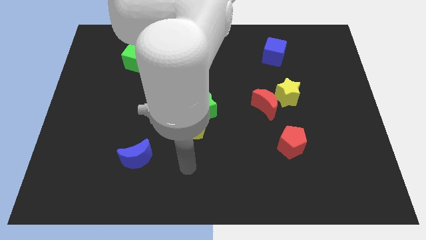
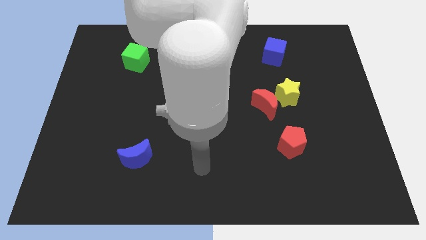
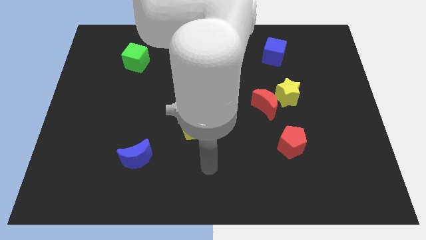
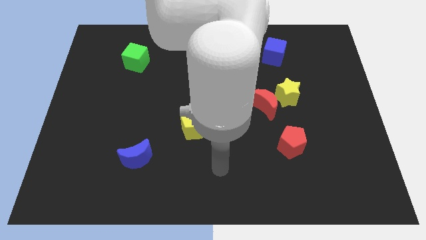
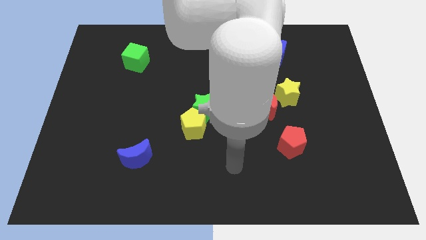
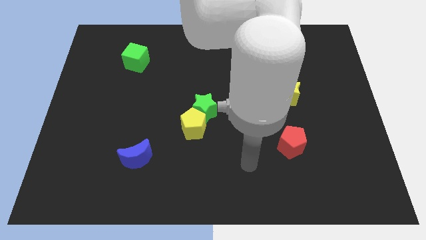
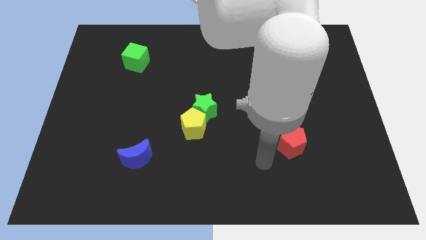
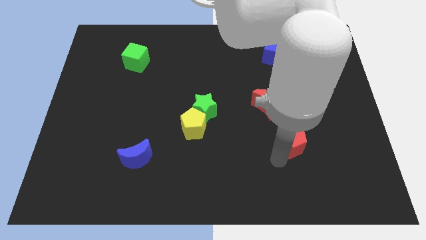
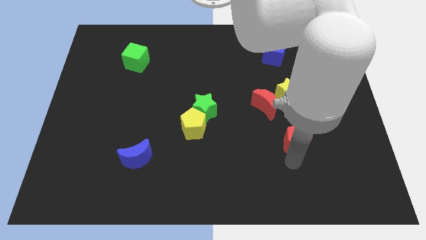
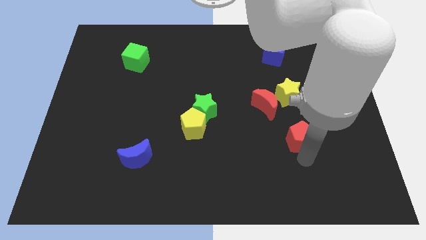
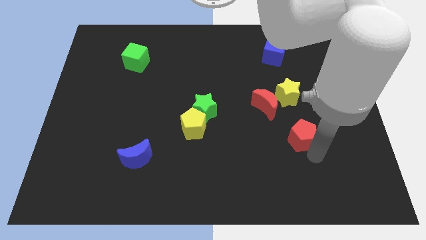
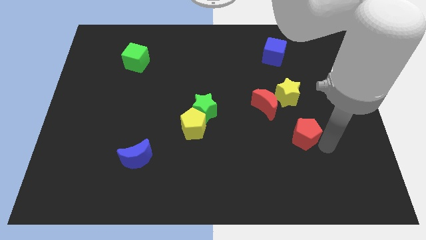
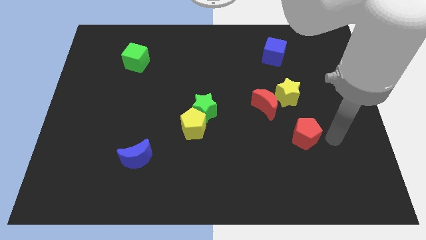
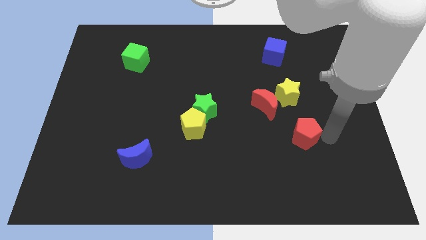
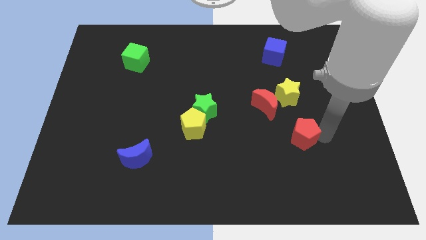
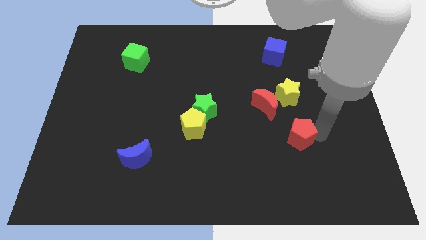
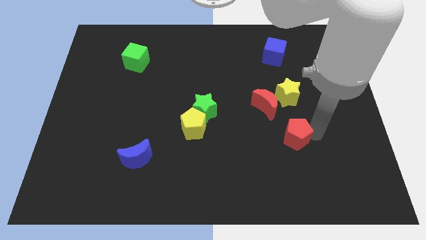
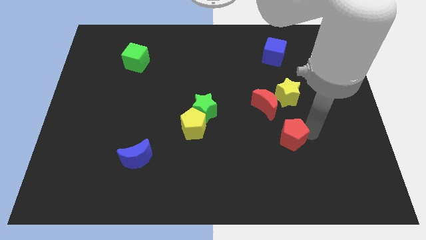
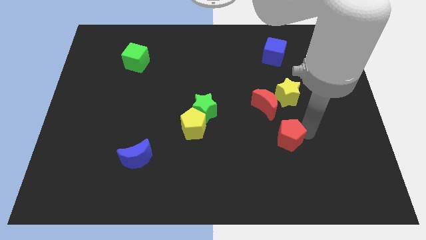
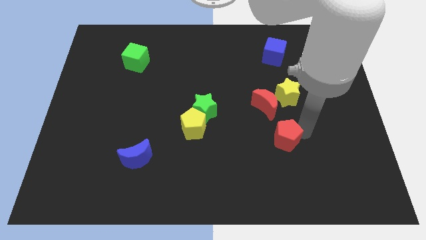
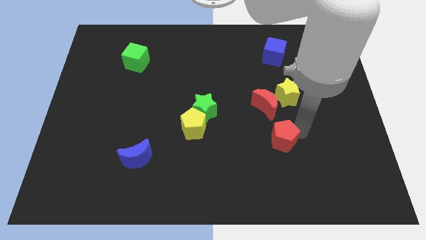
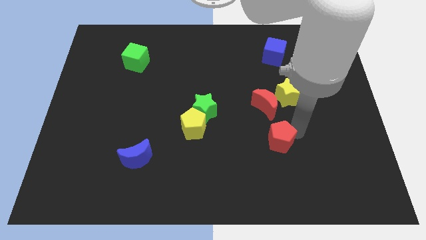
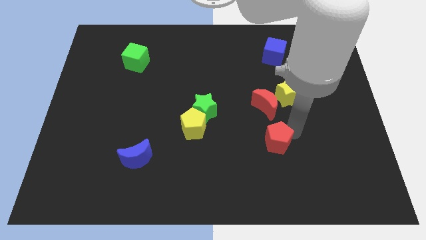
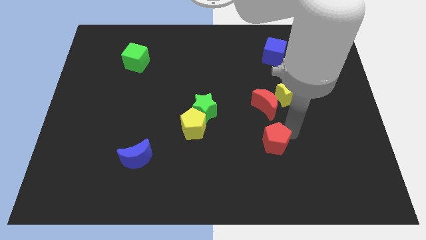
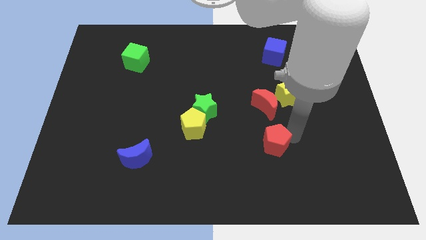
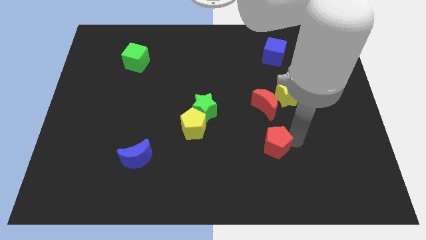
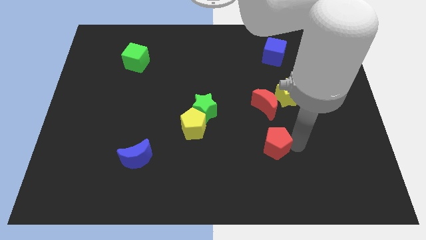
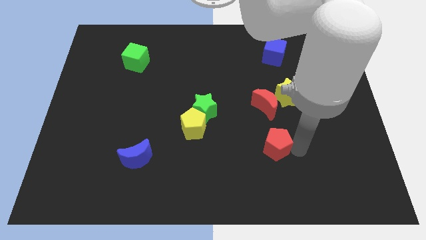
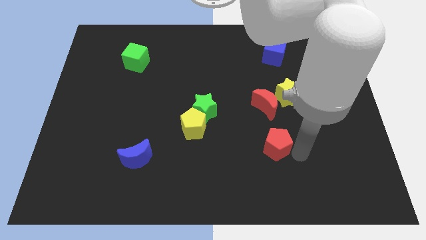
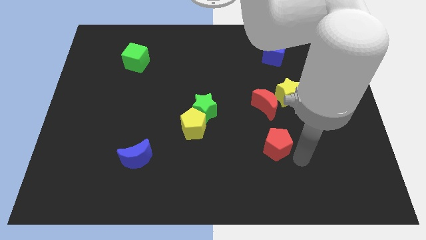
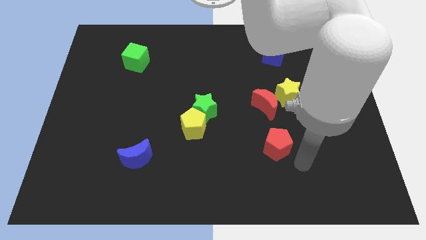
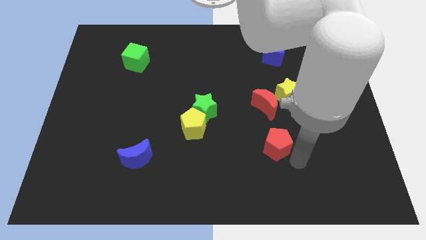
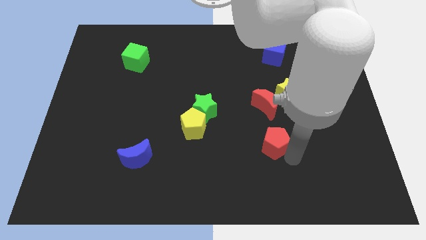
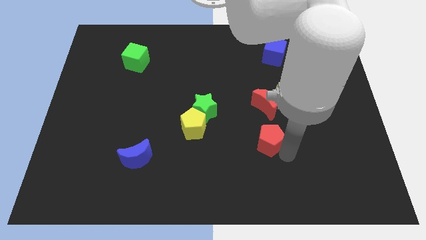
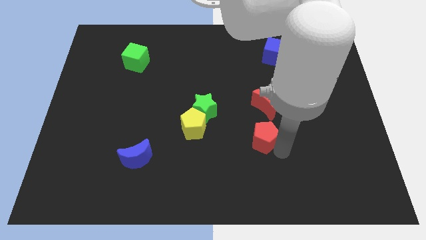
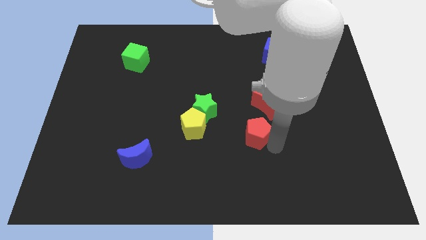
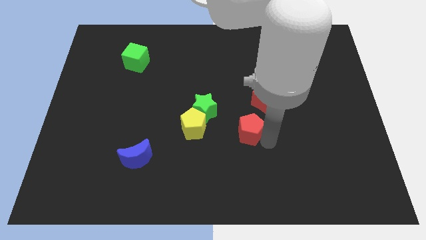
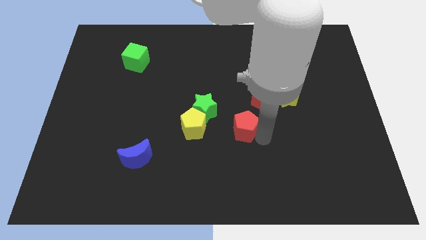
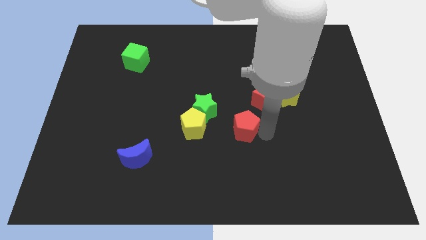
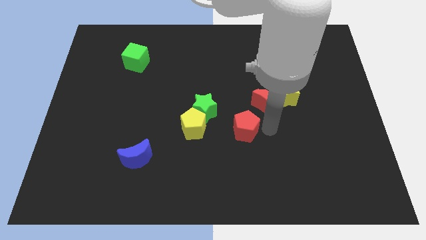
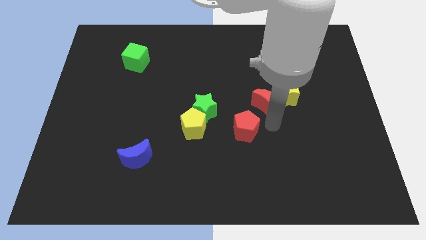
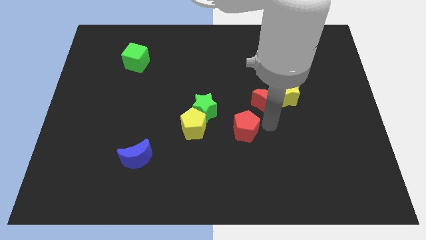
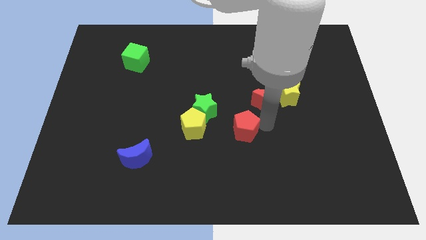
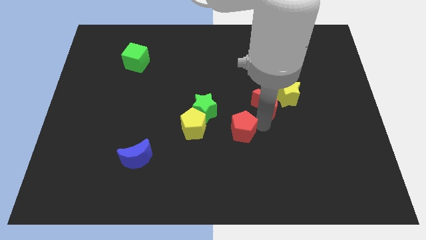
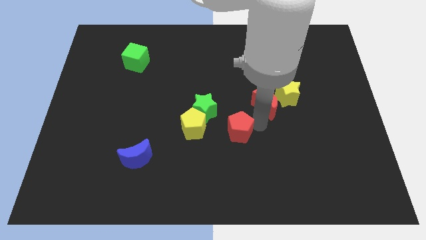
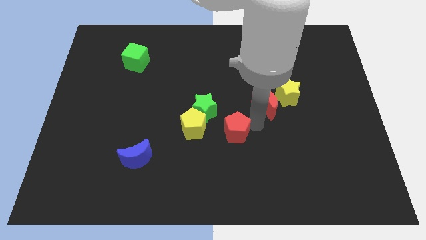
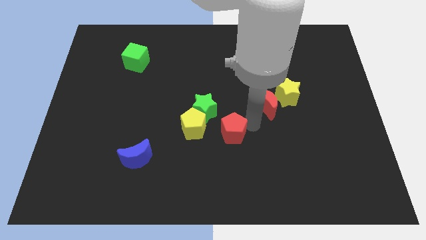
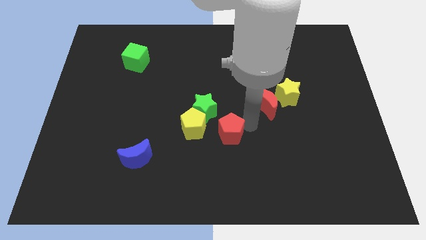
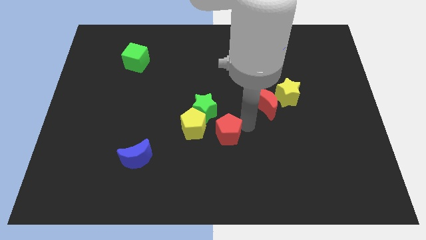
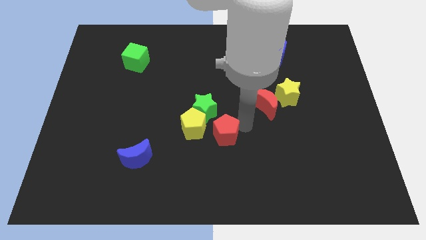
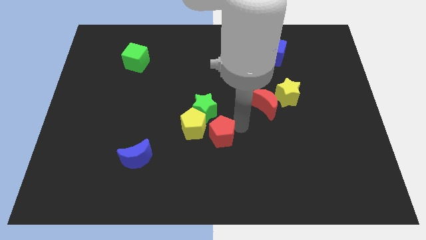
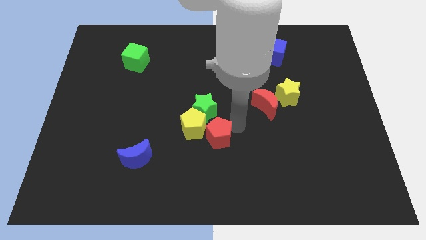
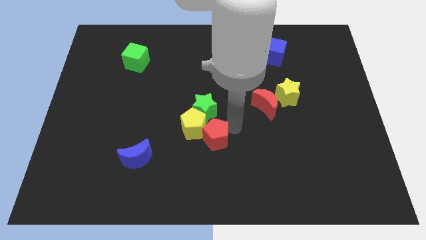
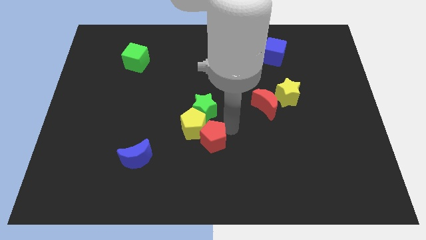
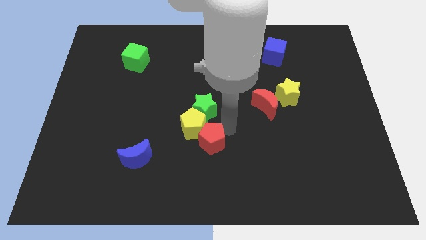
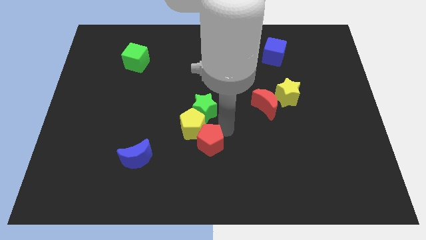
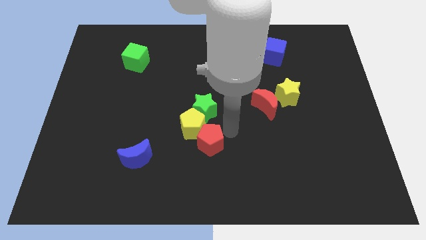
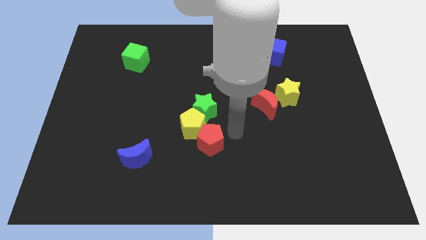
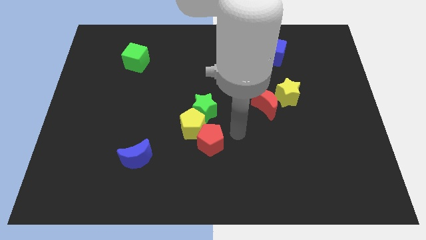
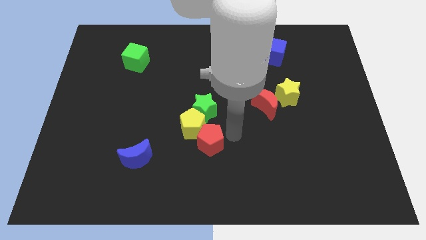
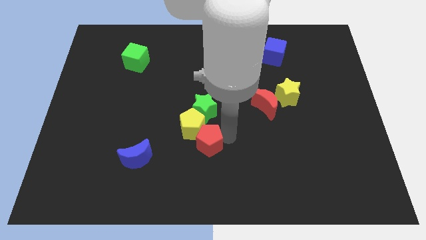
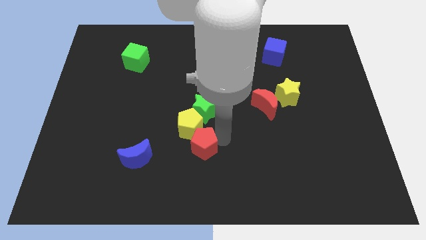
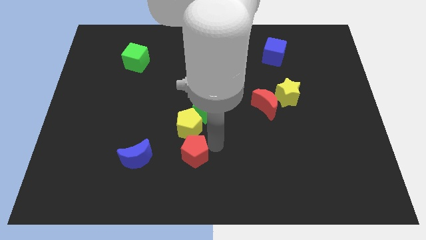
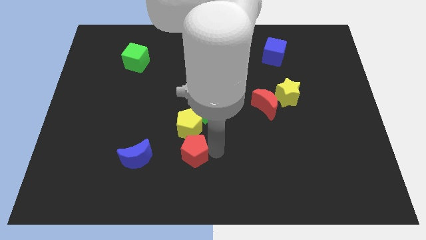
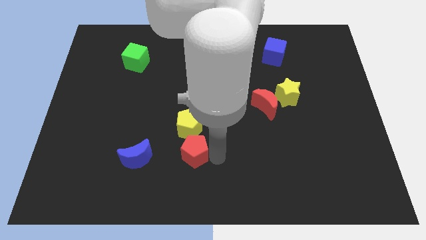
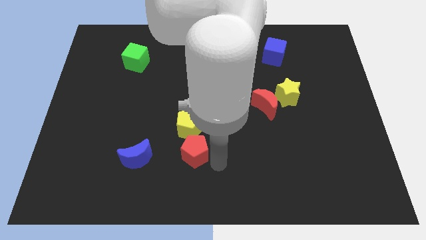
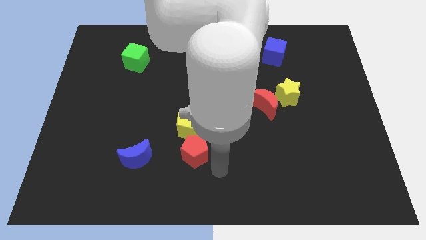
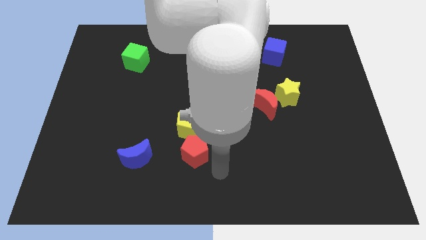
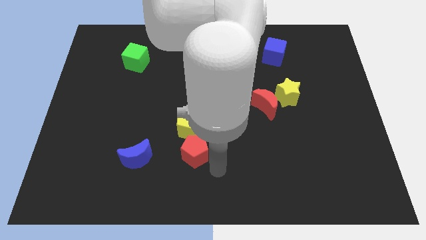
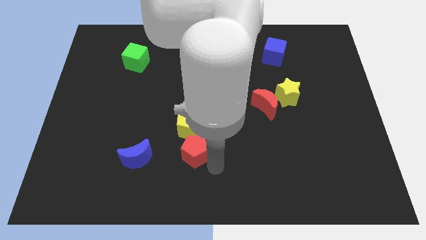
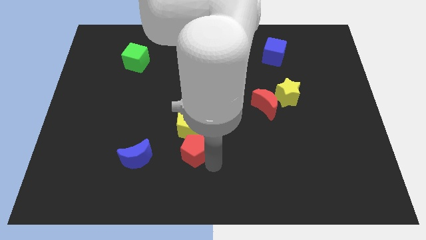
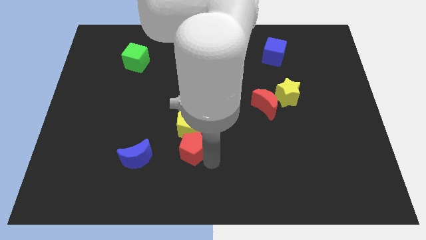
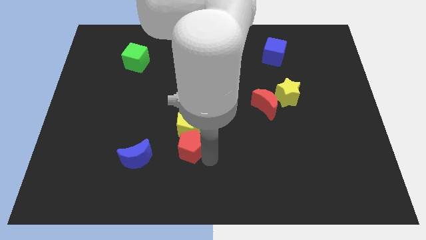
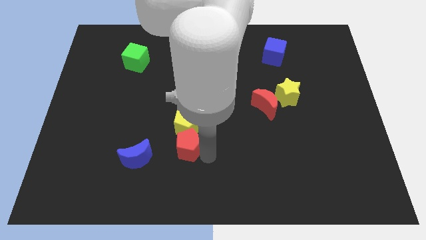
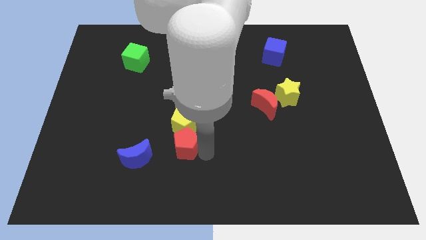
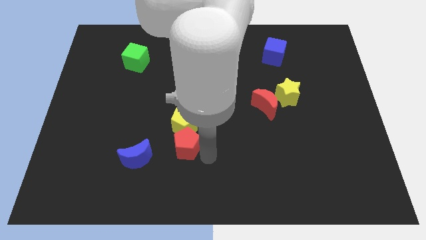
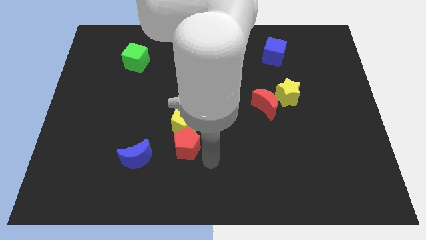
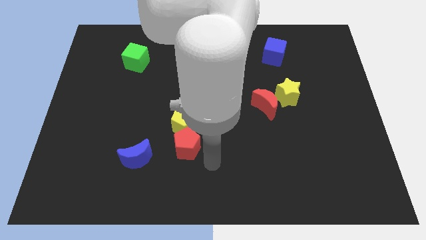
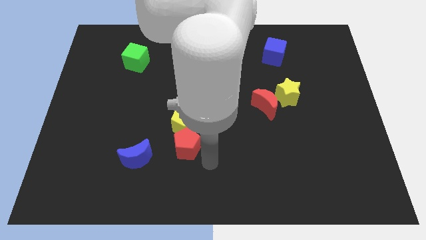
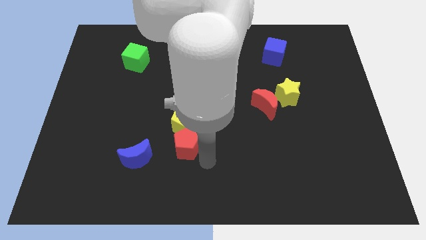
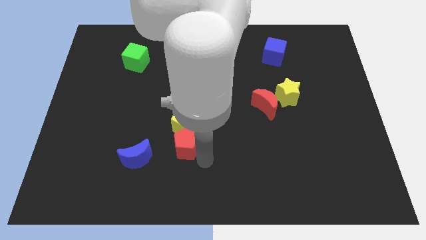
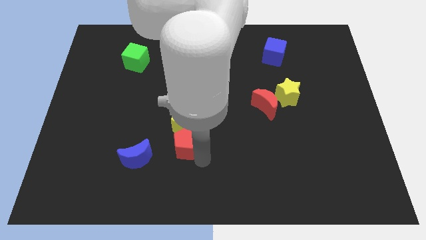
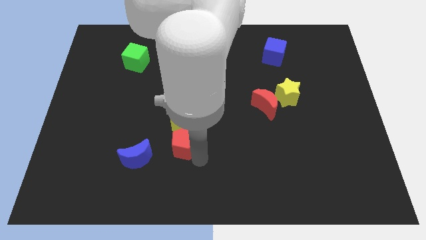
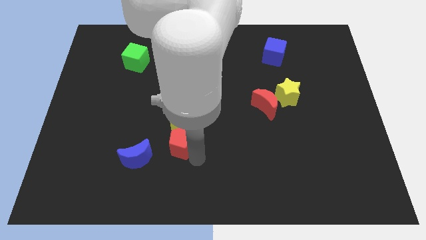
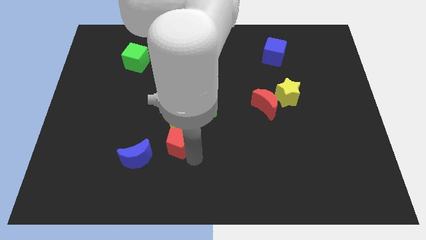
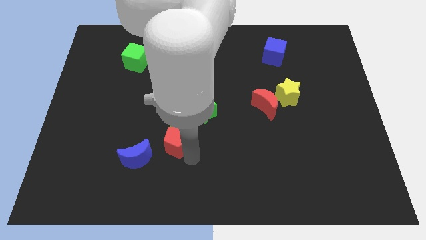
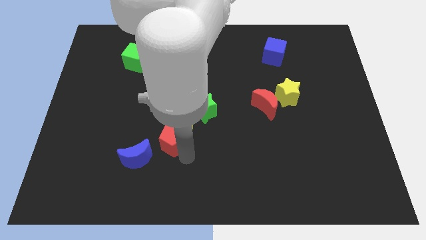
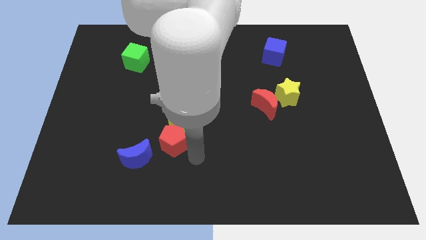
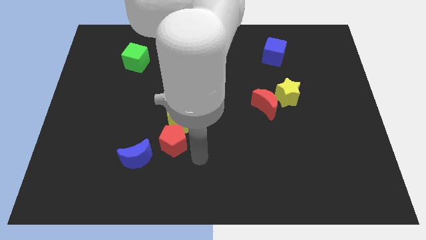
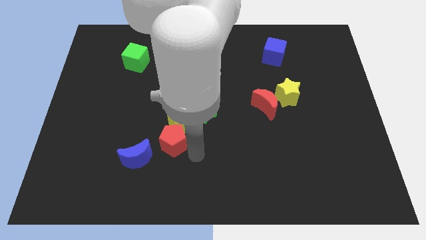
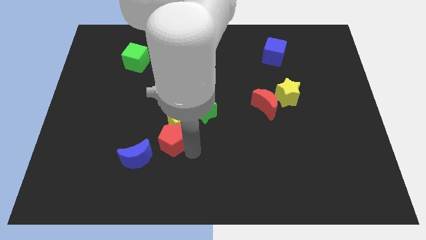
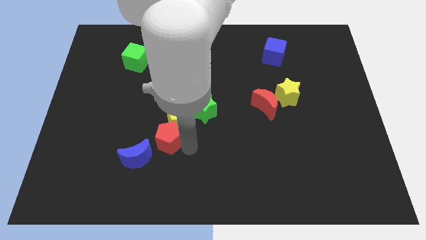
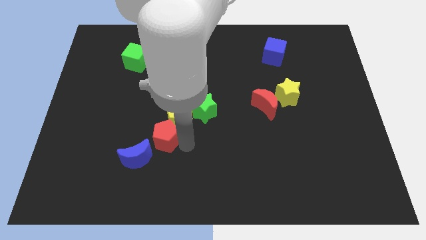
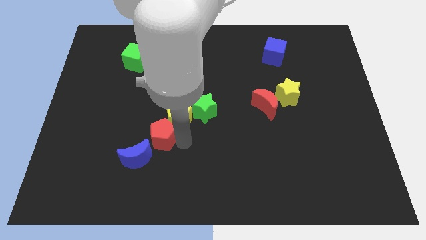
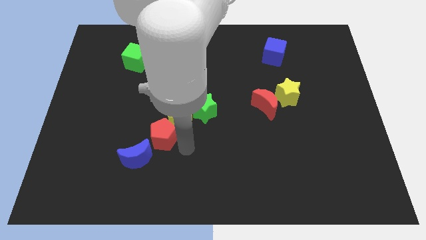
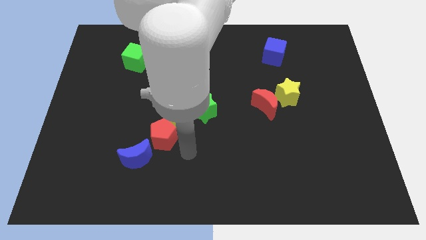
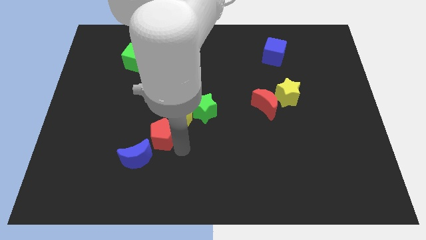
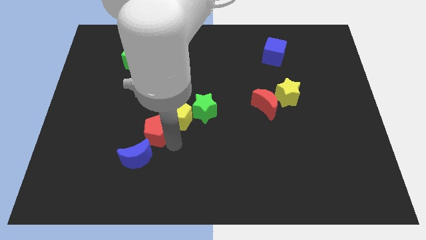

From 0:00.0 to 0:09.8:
push the red pentagon to the left of the yellow pentagon
